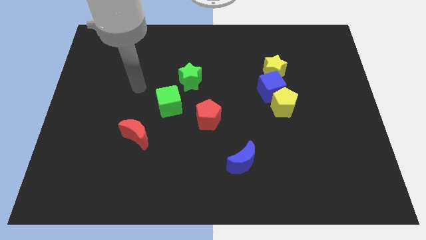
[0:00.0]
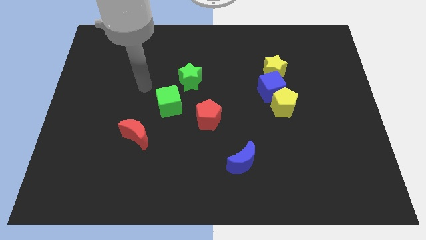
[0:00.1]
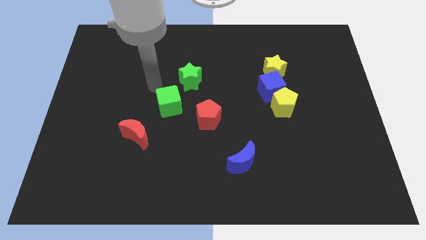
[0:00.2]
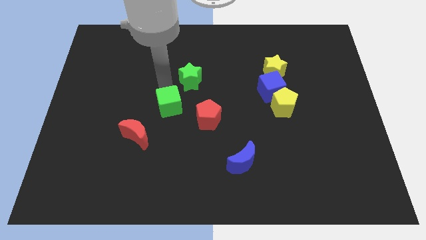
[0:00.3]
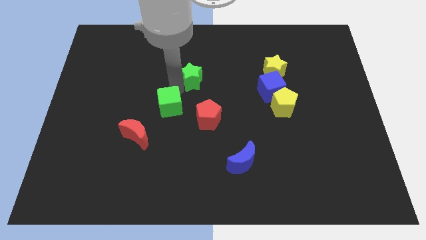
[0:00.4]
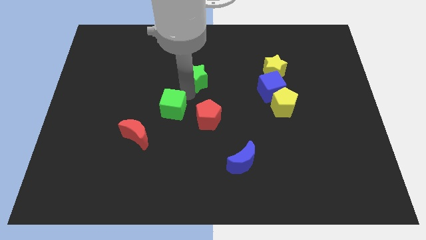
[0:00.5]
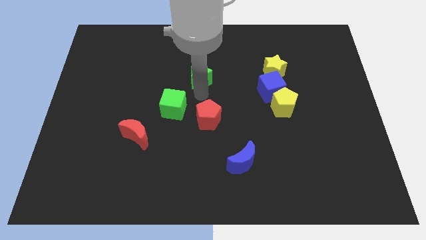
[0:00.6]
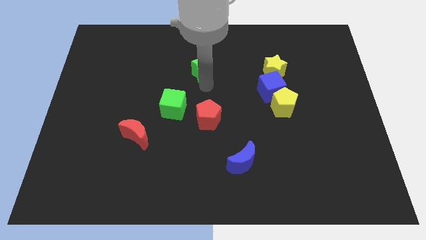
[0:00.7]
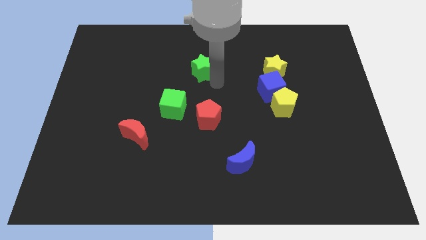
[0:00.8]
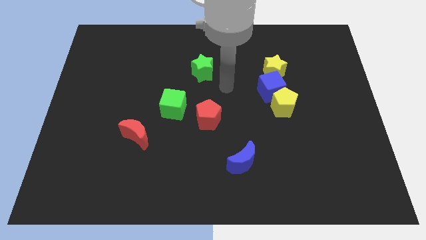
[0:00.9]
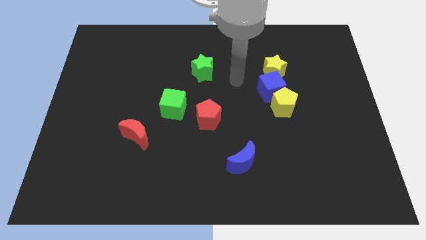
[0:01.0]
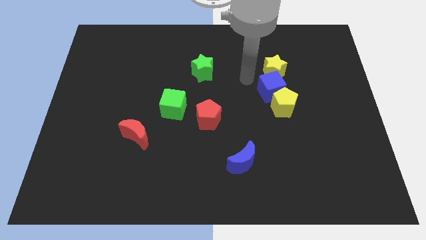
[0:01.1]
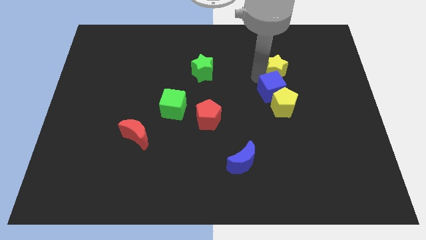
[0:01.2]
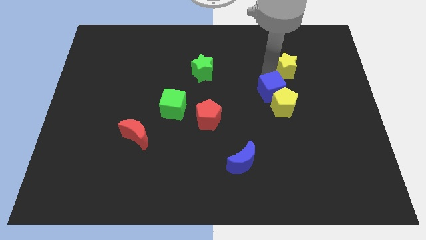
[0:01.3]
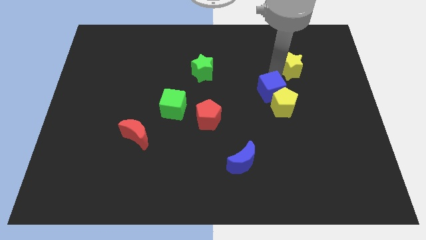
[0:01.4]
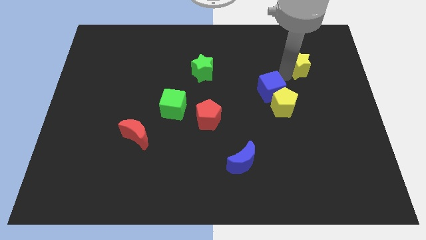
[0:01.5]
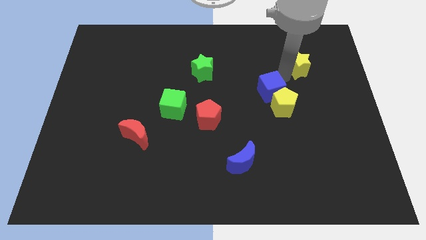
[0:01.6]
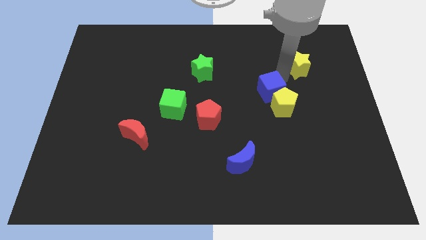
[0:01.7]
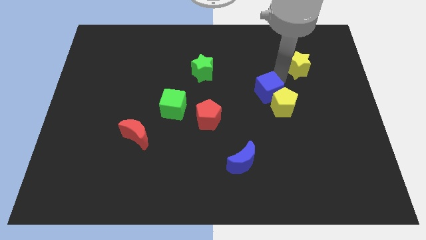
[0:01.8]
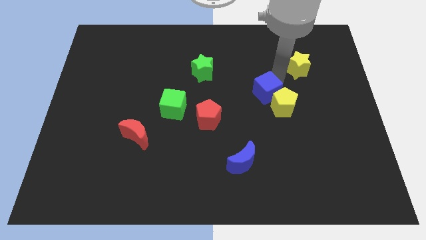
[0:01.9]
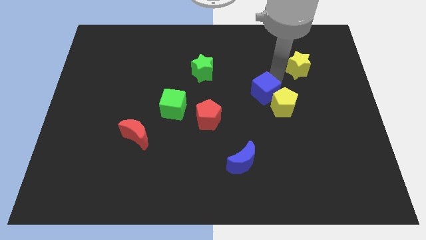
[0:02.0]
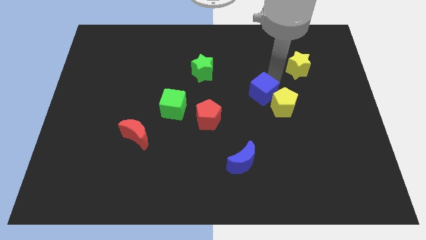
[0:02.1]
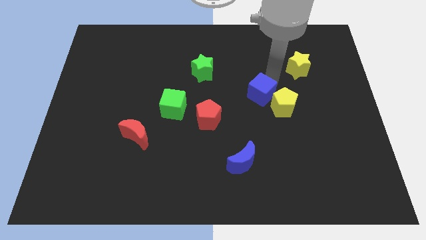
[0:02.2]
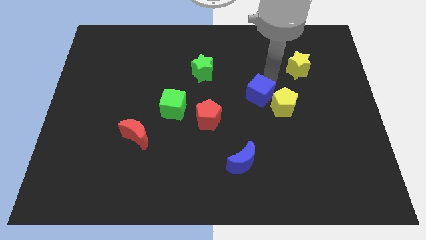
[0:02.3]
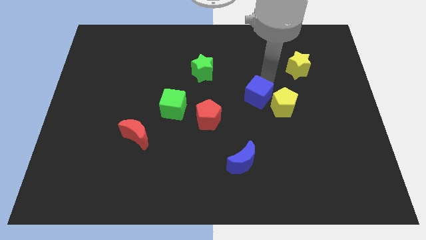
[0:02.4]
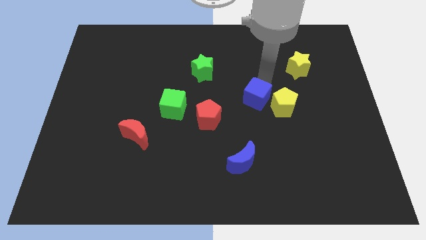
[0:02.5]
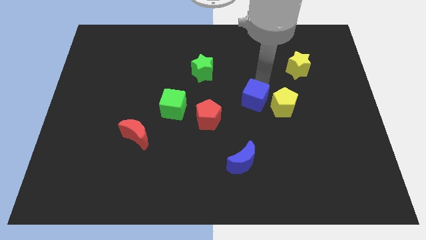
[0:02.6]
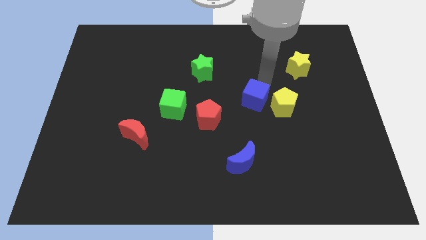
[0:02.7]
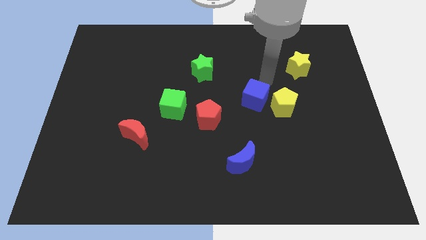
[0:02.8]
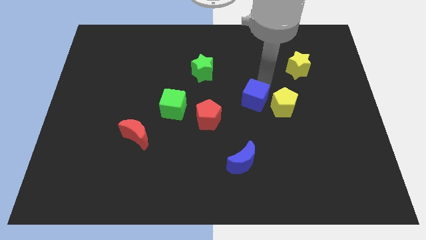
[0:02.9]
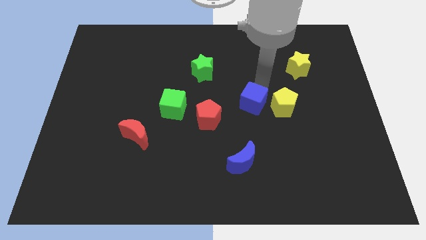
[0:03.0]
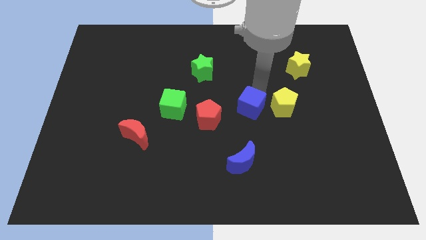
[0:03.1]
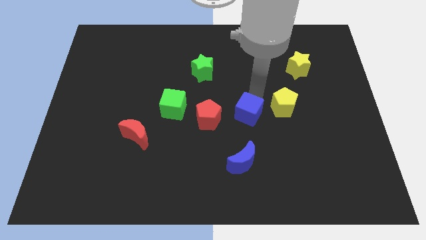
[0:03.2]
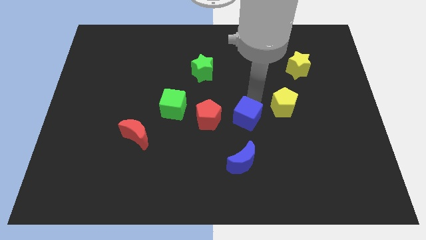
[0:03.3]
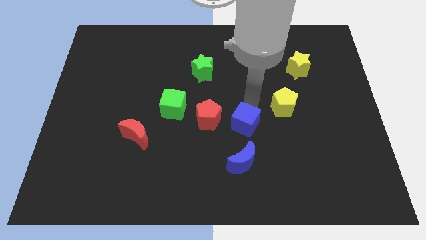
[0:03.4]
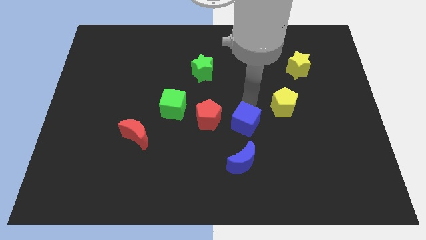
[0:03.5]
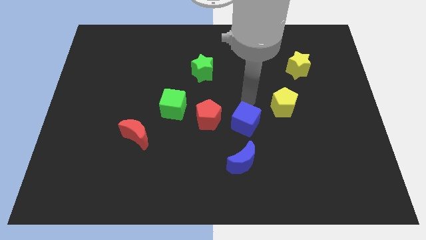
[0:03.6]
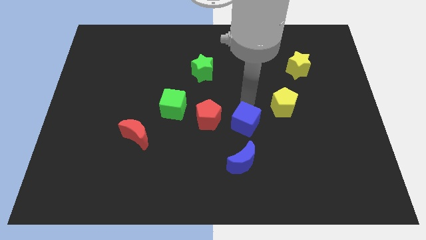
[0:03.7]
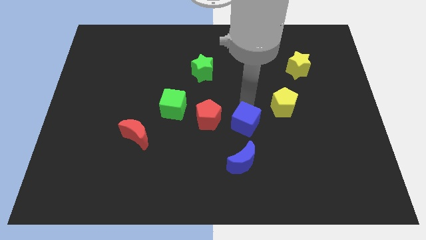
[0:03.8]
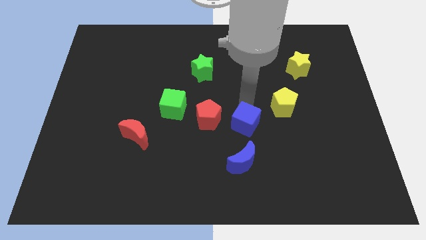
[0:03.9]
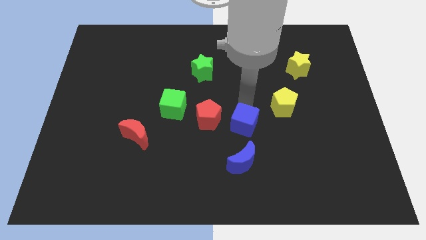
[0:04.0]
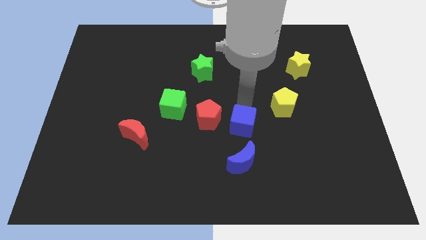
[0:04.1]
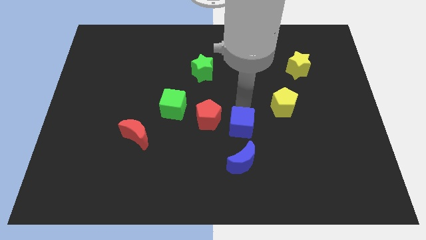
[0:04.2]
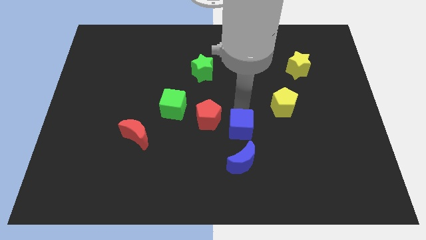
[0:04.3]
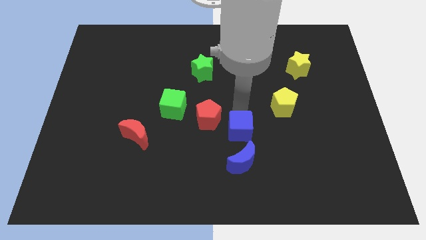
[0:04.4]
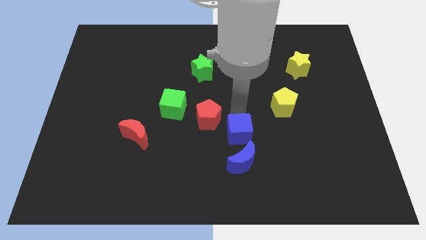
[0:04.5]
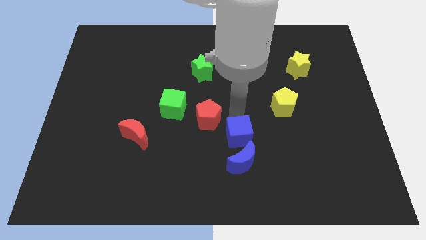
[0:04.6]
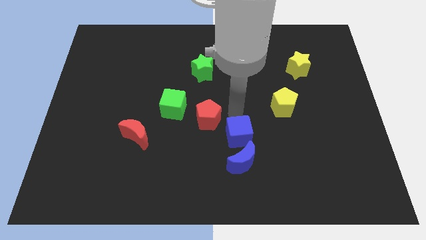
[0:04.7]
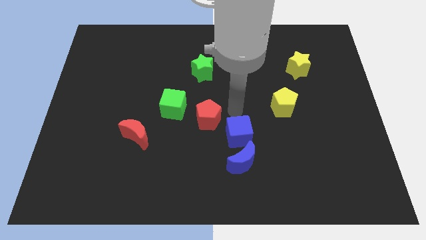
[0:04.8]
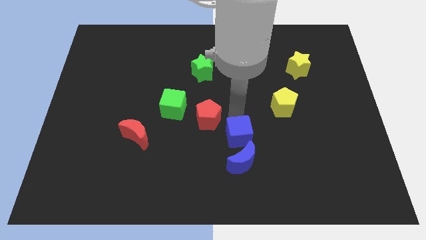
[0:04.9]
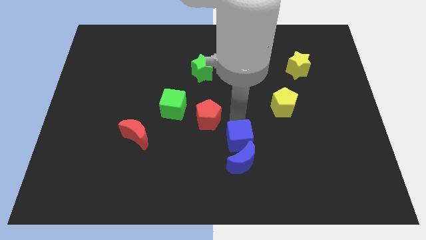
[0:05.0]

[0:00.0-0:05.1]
slide the blue cube towards the blue moon

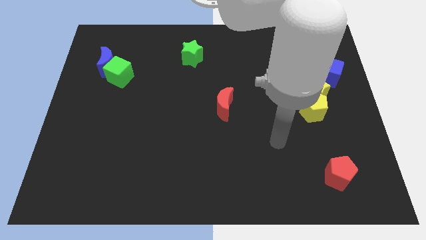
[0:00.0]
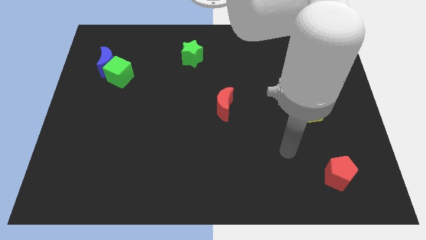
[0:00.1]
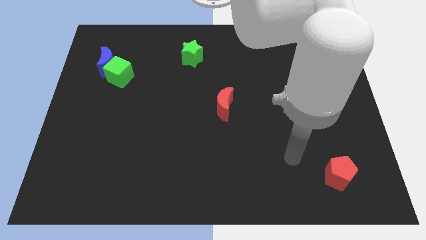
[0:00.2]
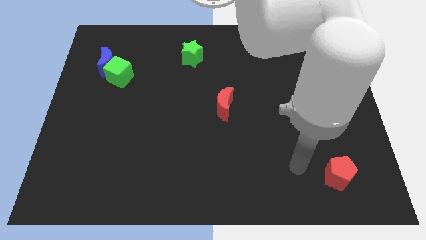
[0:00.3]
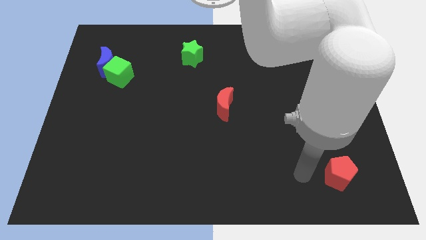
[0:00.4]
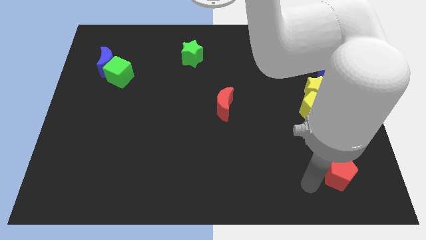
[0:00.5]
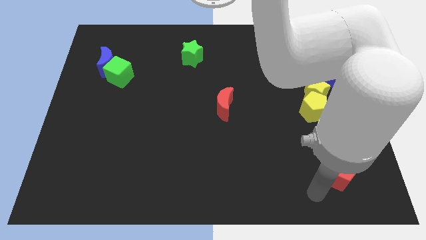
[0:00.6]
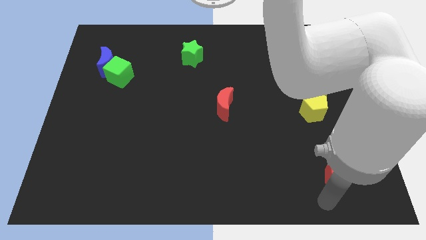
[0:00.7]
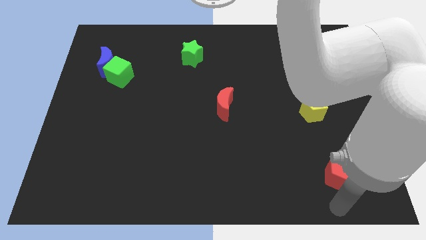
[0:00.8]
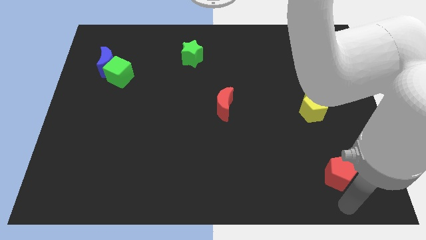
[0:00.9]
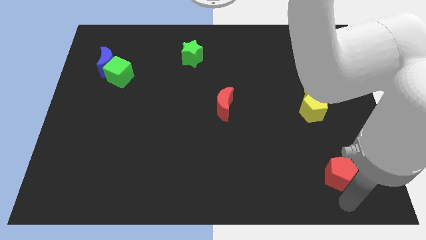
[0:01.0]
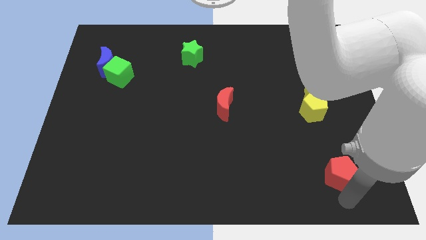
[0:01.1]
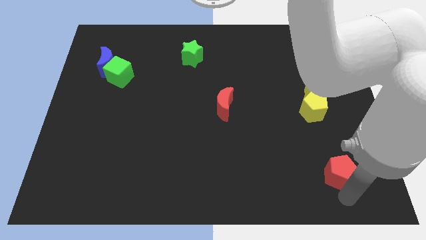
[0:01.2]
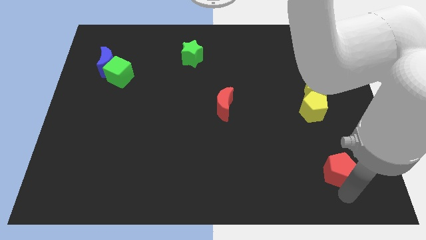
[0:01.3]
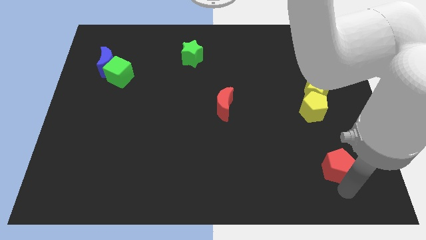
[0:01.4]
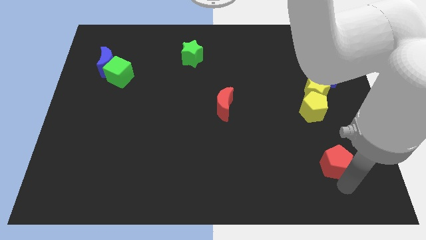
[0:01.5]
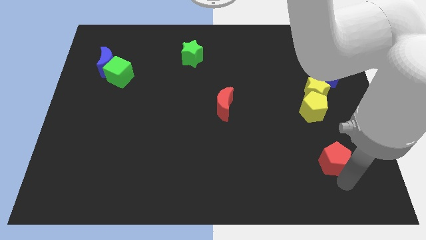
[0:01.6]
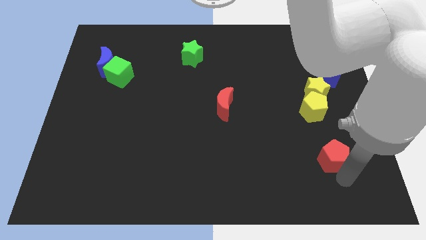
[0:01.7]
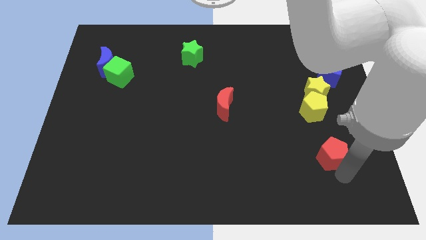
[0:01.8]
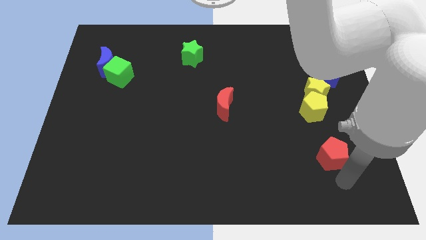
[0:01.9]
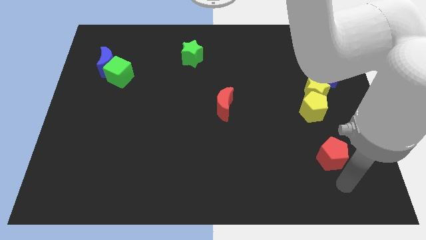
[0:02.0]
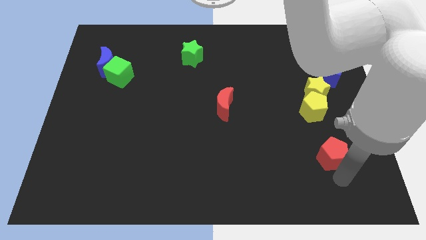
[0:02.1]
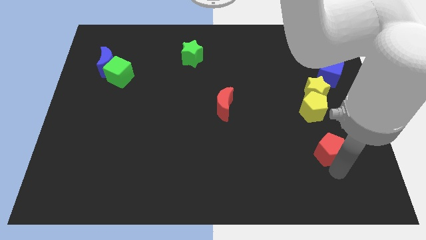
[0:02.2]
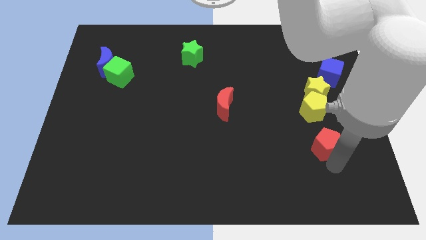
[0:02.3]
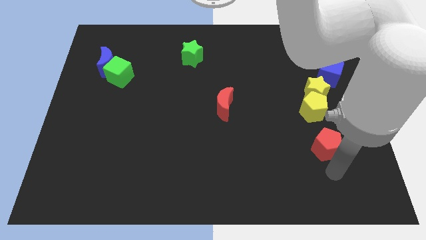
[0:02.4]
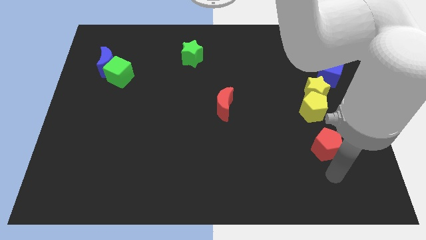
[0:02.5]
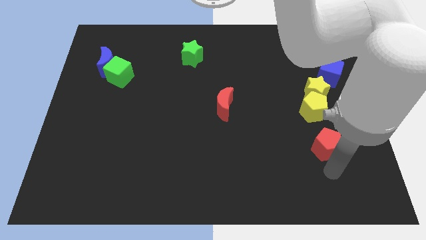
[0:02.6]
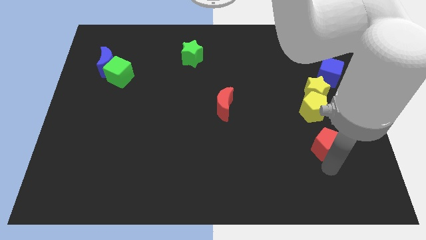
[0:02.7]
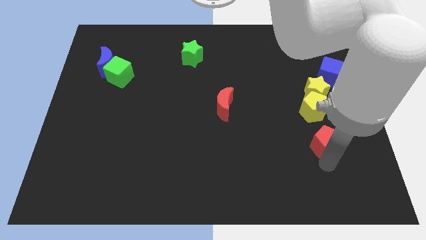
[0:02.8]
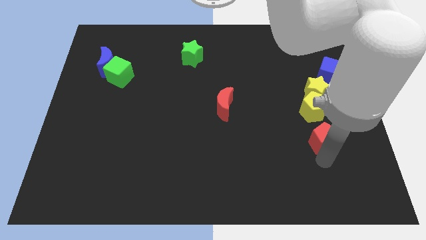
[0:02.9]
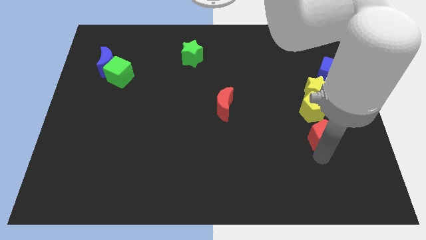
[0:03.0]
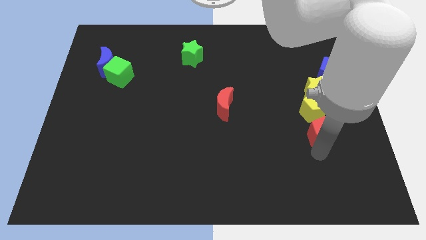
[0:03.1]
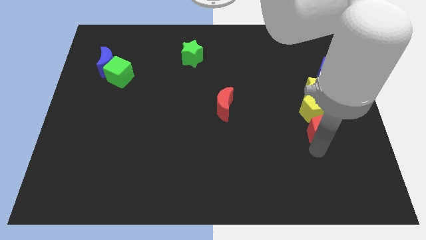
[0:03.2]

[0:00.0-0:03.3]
move the red pentagon towards the yellow pentagon
